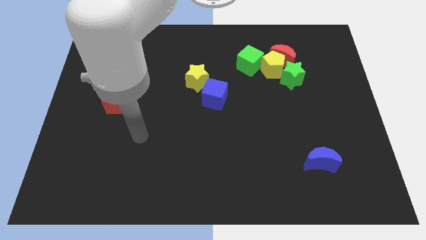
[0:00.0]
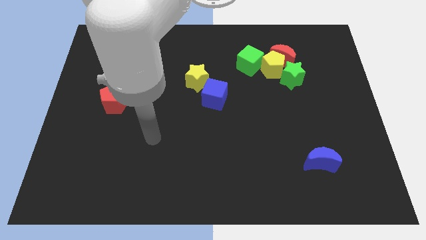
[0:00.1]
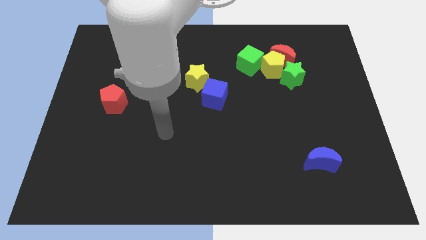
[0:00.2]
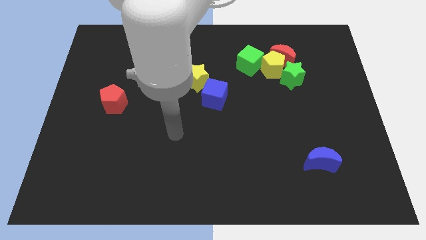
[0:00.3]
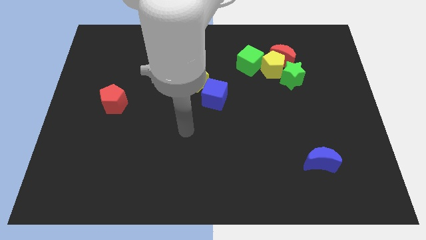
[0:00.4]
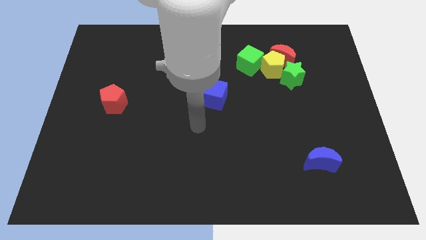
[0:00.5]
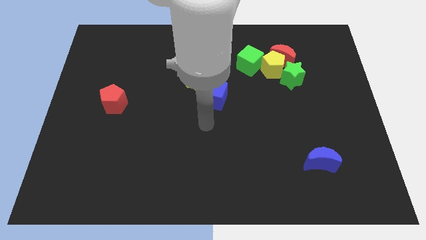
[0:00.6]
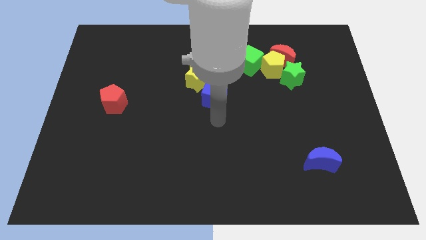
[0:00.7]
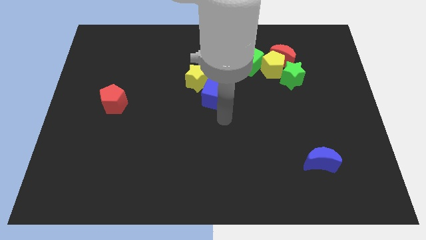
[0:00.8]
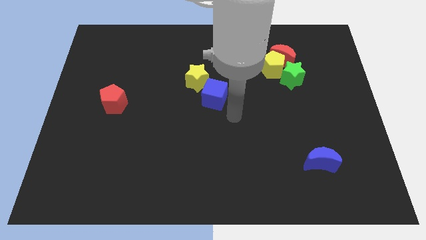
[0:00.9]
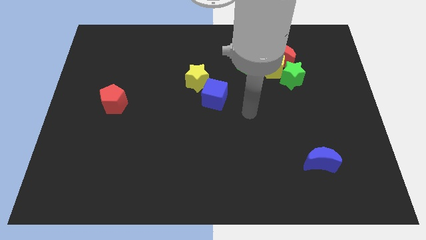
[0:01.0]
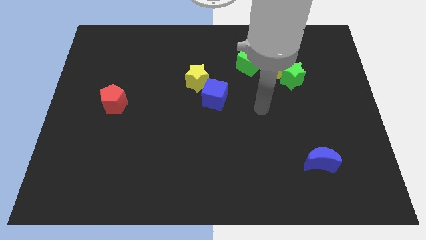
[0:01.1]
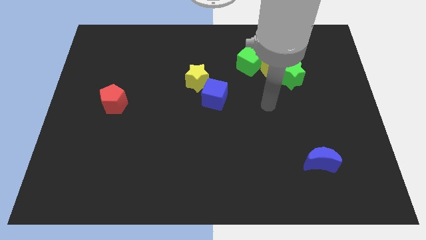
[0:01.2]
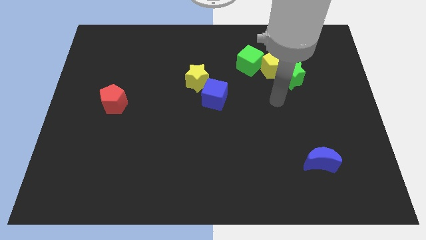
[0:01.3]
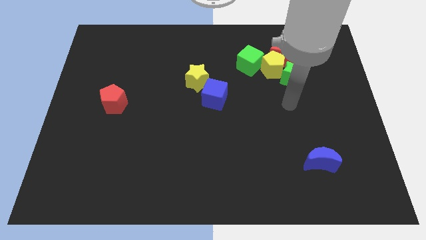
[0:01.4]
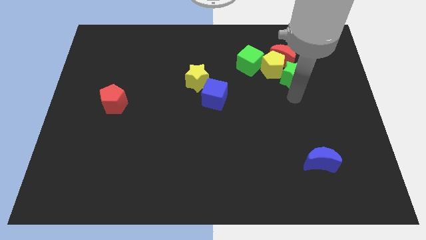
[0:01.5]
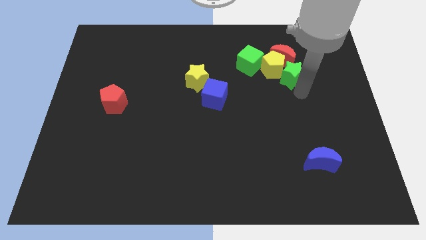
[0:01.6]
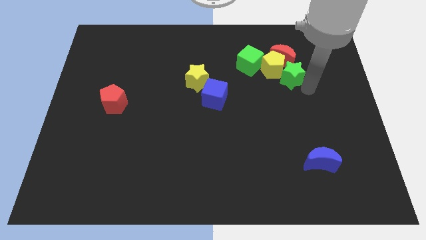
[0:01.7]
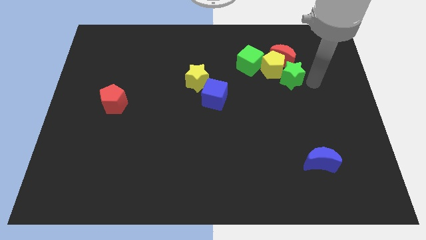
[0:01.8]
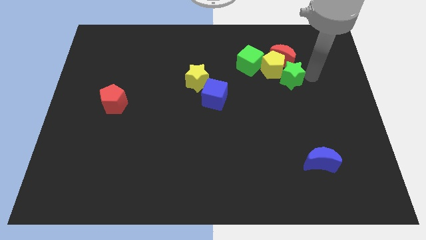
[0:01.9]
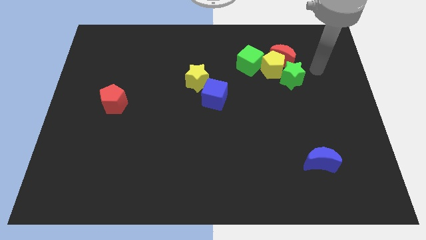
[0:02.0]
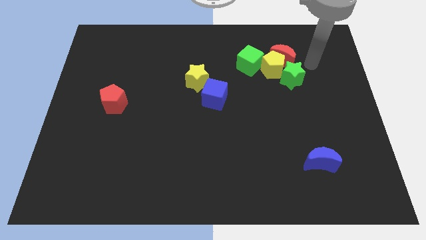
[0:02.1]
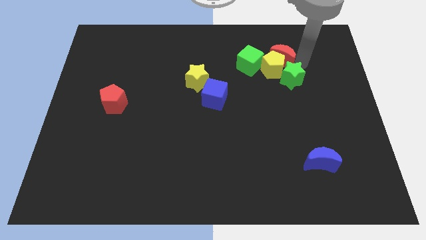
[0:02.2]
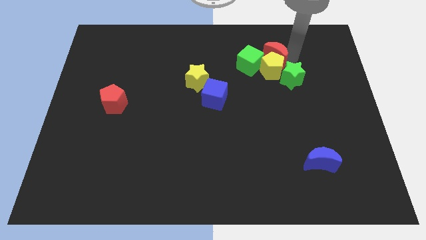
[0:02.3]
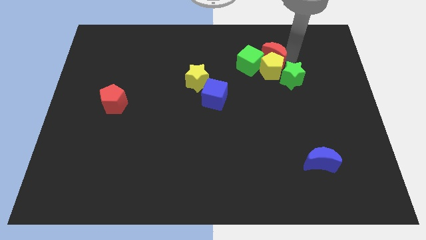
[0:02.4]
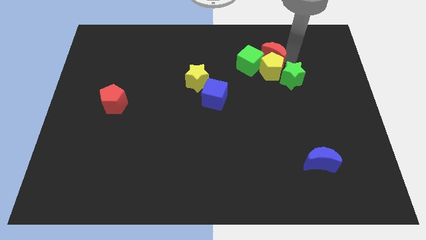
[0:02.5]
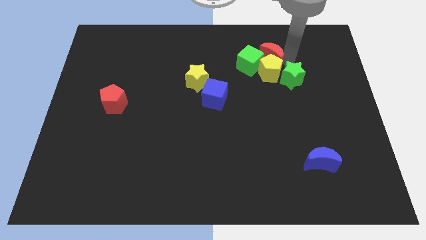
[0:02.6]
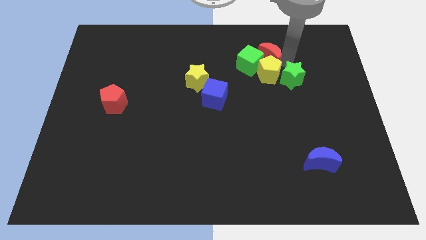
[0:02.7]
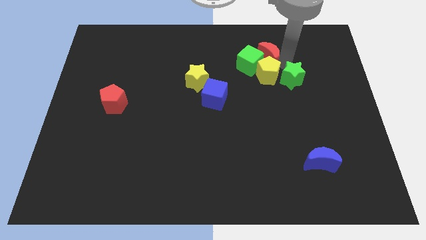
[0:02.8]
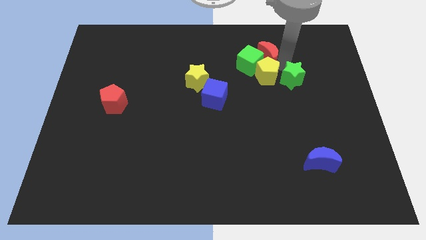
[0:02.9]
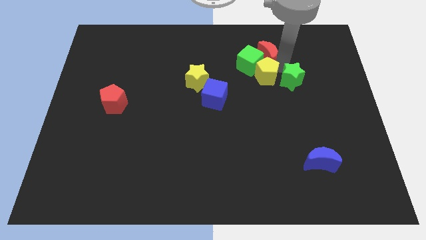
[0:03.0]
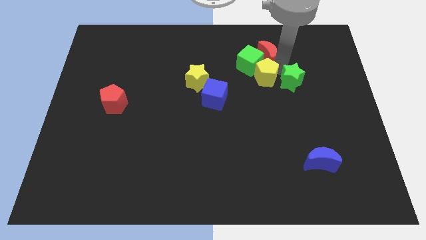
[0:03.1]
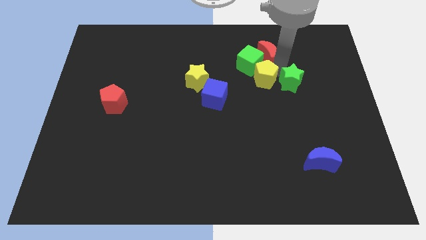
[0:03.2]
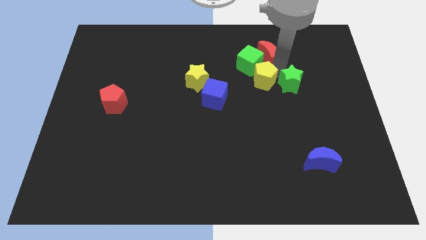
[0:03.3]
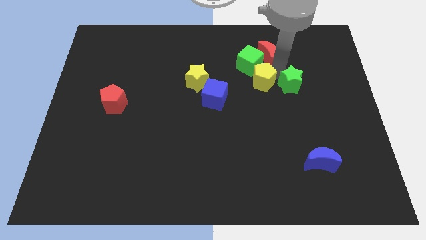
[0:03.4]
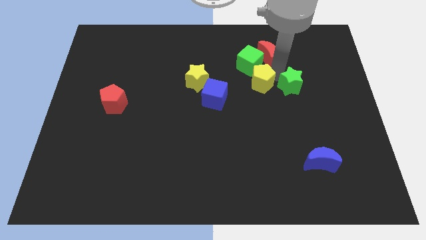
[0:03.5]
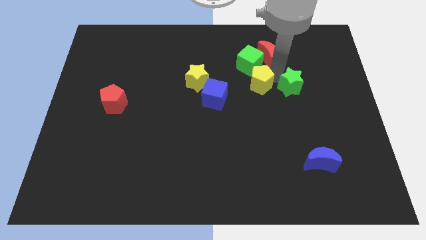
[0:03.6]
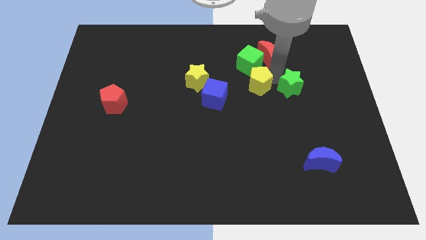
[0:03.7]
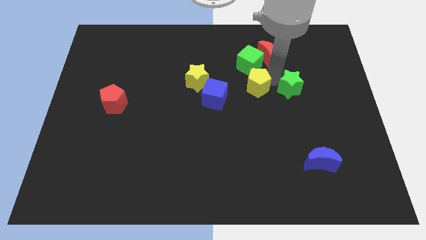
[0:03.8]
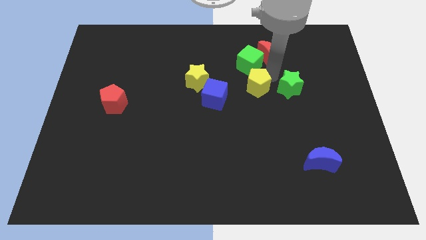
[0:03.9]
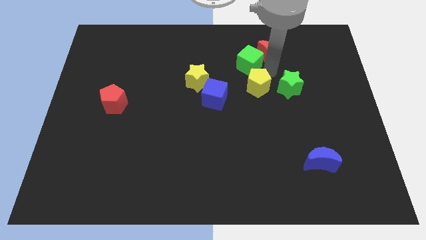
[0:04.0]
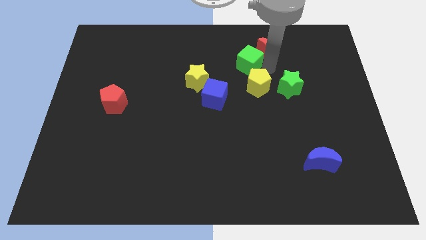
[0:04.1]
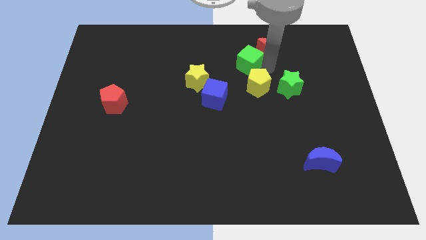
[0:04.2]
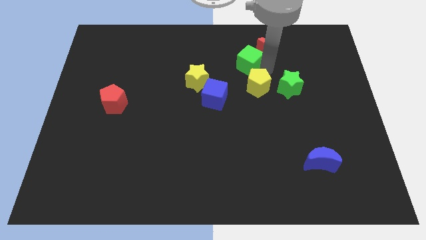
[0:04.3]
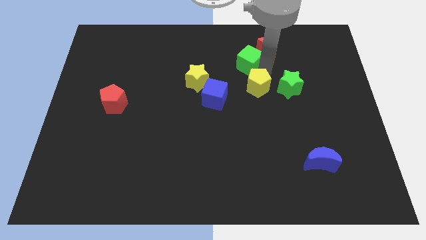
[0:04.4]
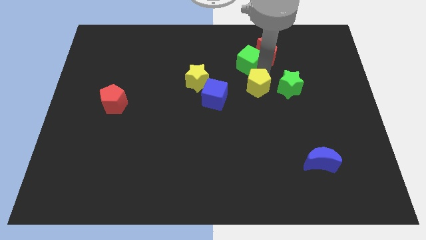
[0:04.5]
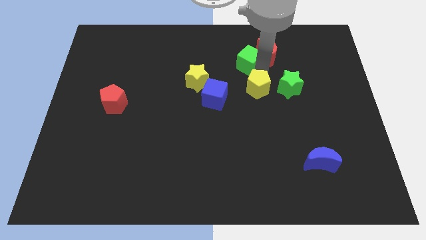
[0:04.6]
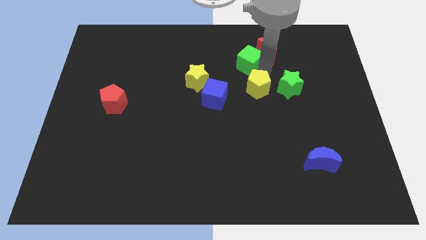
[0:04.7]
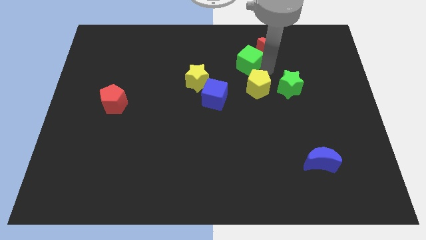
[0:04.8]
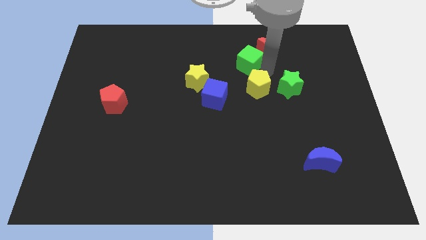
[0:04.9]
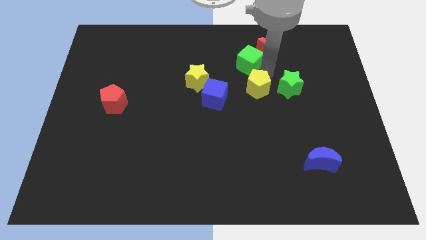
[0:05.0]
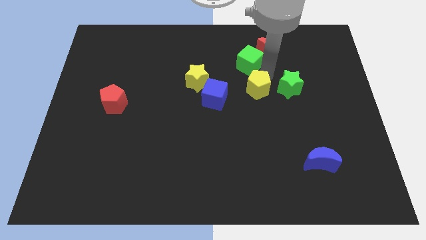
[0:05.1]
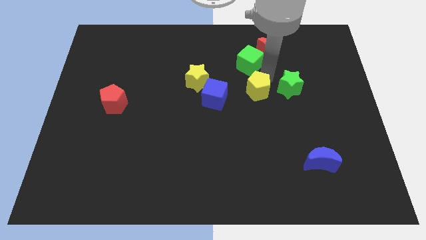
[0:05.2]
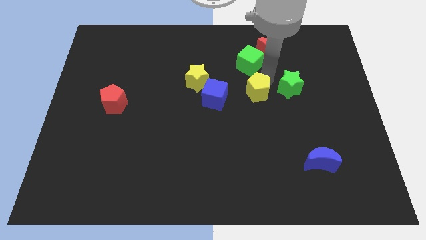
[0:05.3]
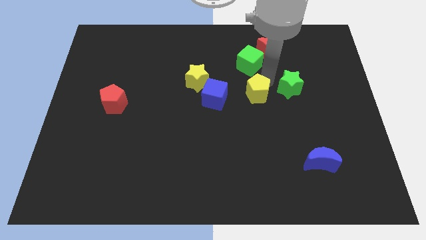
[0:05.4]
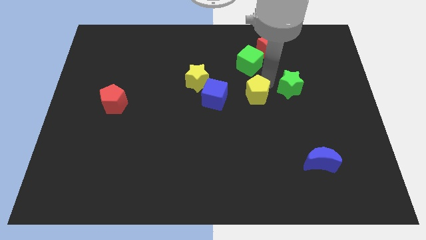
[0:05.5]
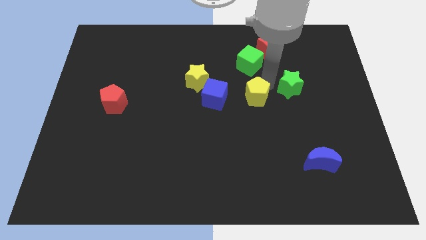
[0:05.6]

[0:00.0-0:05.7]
separate the yellow pentagon from the clump

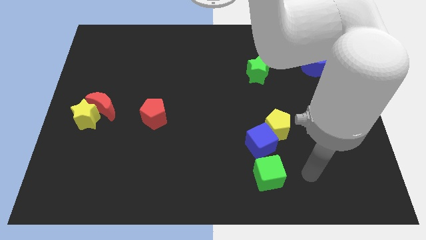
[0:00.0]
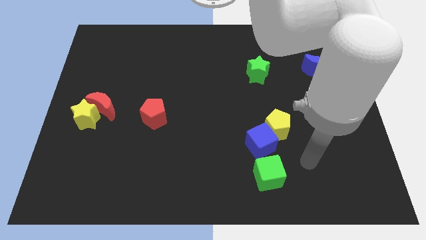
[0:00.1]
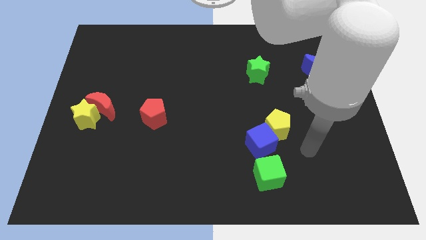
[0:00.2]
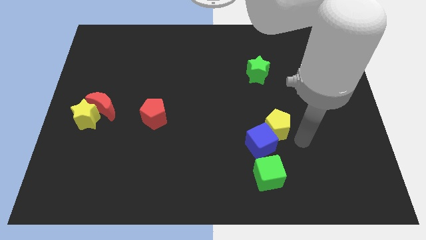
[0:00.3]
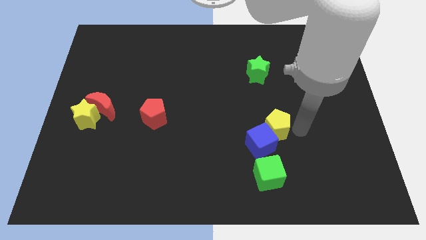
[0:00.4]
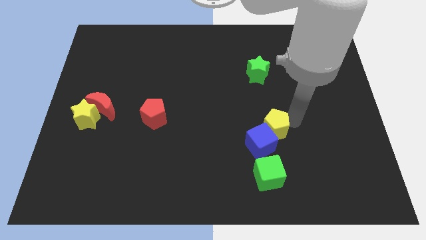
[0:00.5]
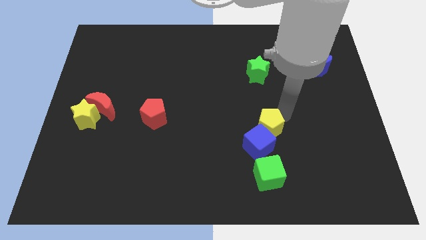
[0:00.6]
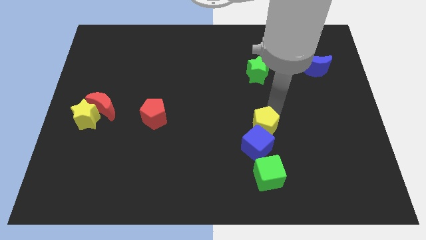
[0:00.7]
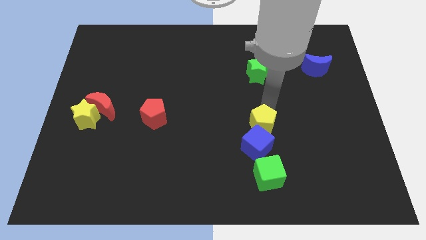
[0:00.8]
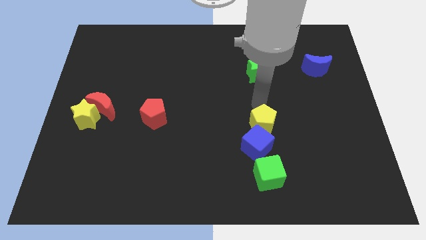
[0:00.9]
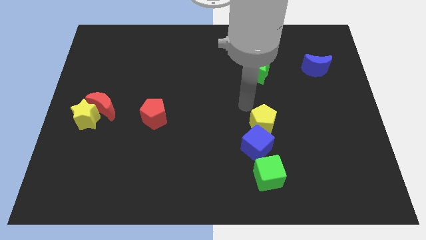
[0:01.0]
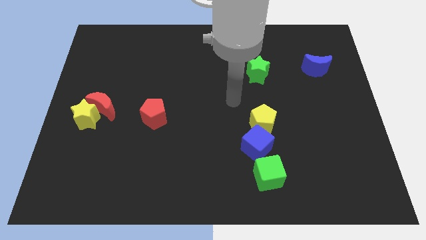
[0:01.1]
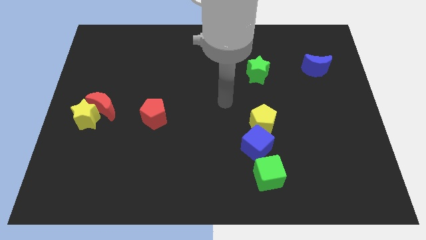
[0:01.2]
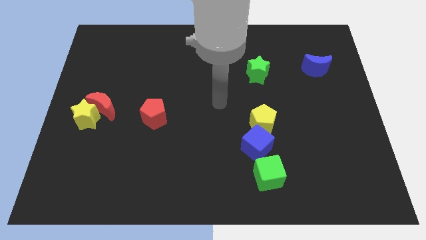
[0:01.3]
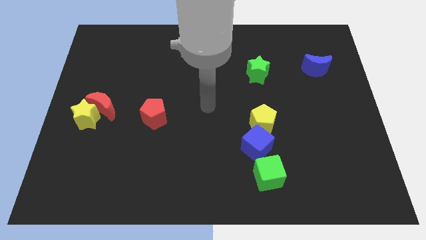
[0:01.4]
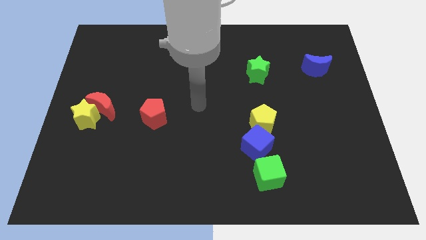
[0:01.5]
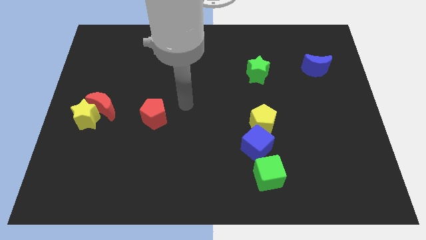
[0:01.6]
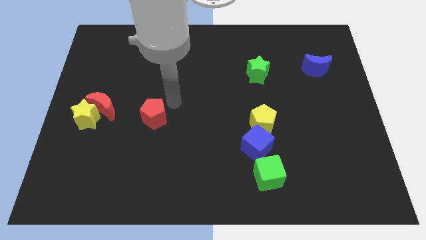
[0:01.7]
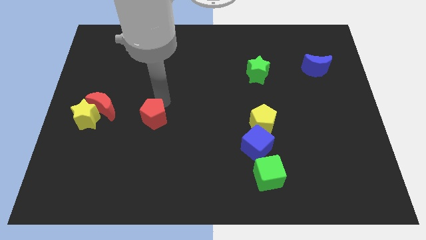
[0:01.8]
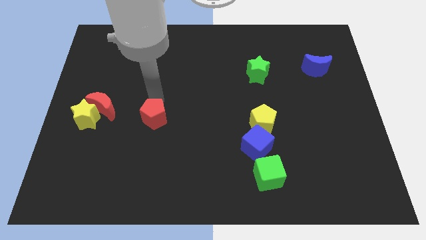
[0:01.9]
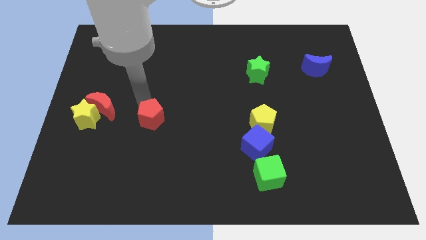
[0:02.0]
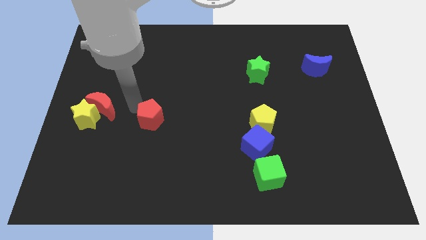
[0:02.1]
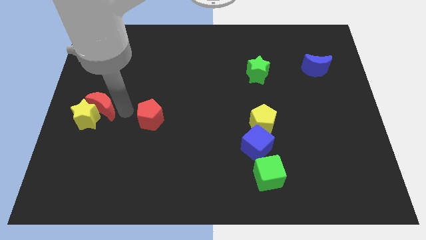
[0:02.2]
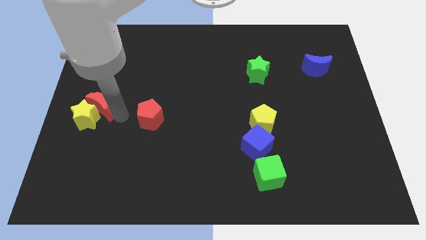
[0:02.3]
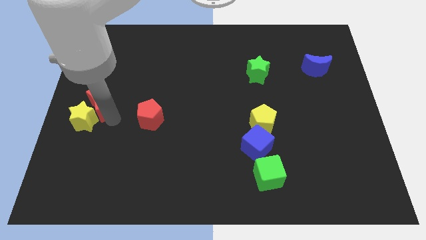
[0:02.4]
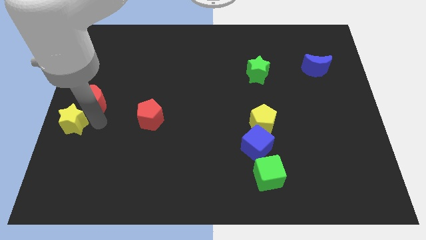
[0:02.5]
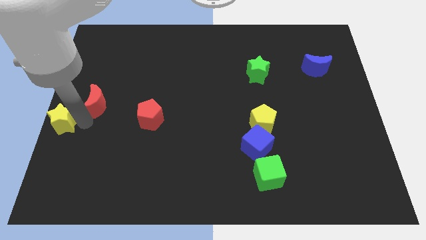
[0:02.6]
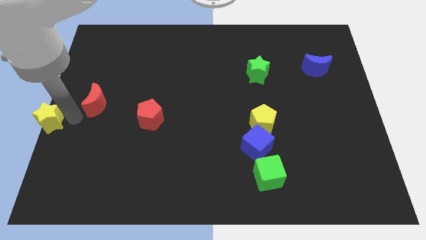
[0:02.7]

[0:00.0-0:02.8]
pull the red moon apart from the yellow star

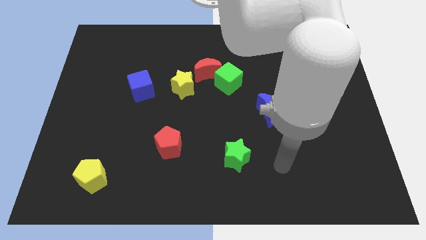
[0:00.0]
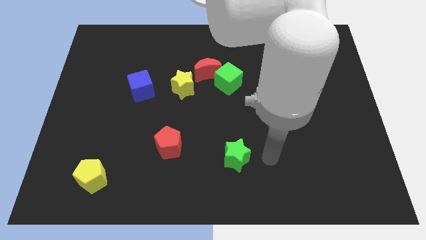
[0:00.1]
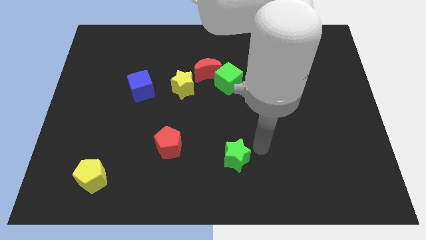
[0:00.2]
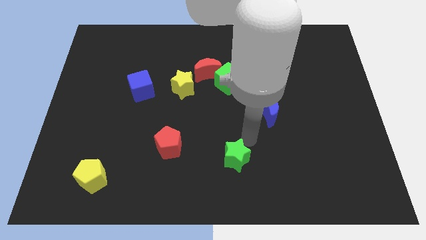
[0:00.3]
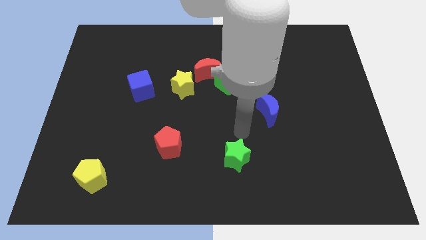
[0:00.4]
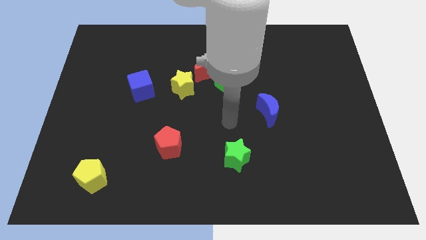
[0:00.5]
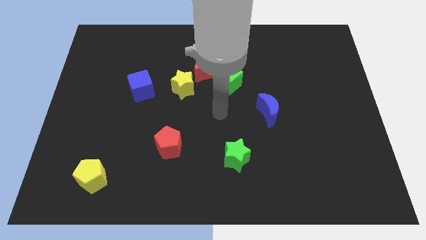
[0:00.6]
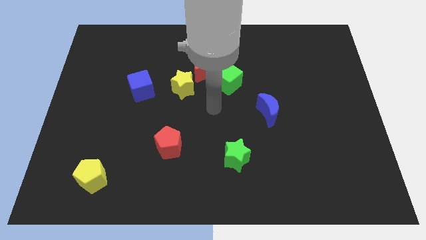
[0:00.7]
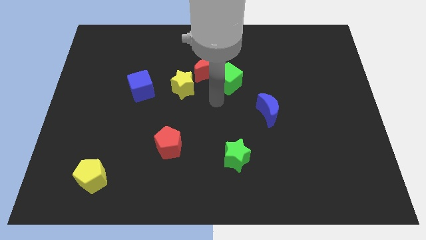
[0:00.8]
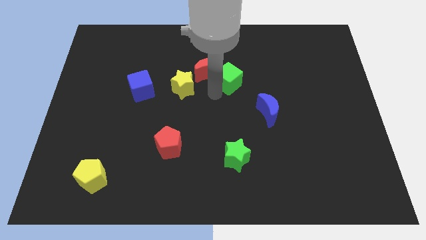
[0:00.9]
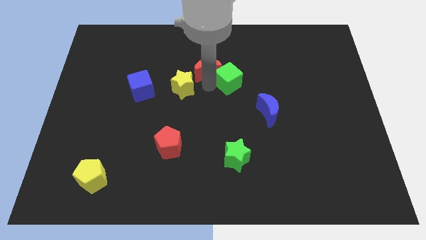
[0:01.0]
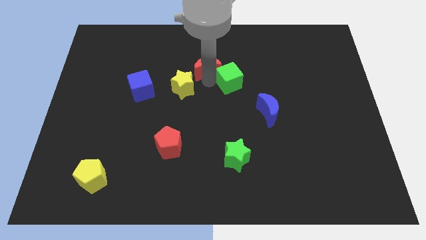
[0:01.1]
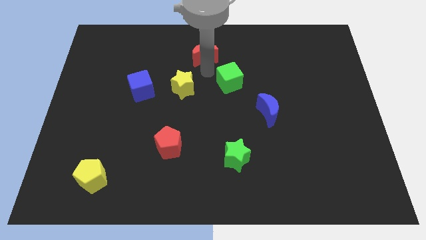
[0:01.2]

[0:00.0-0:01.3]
separate the green cube from the red moon
